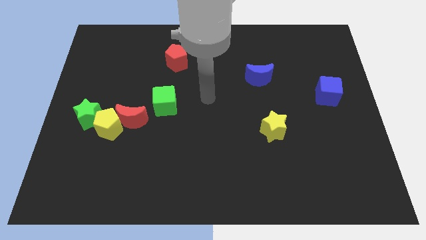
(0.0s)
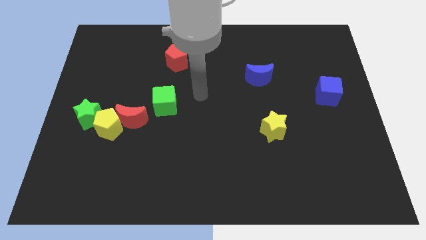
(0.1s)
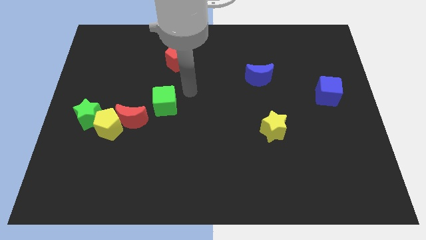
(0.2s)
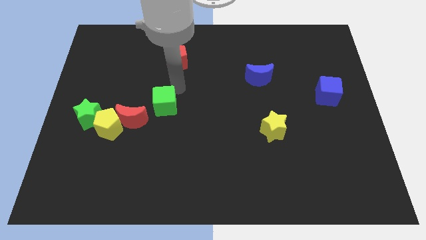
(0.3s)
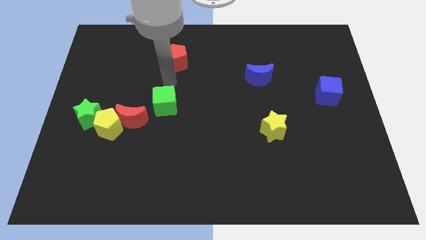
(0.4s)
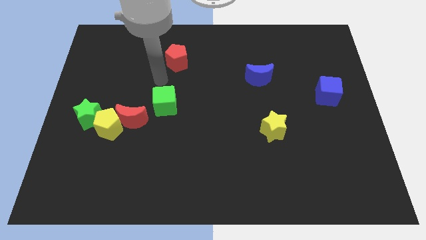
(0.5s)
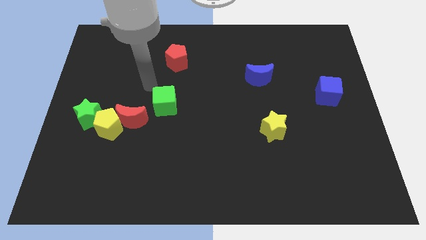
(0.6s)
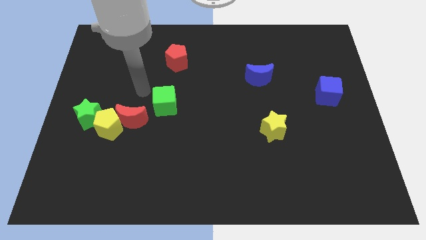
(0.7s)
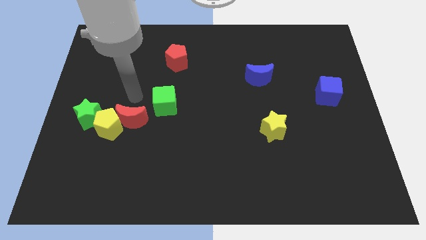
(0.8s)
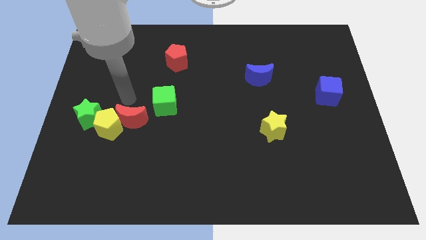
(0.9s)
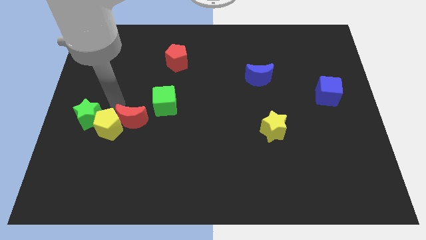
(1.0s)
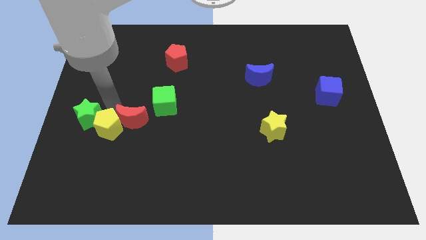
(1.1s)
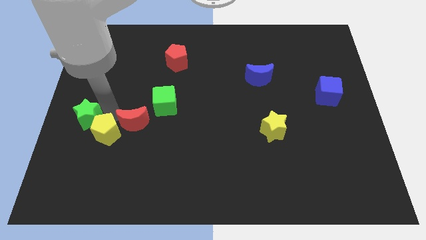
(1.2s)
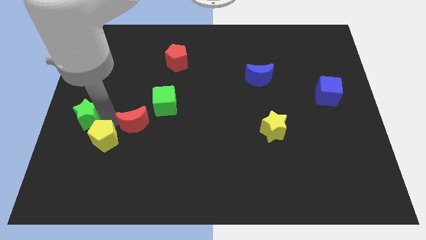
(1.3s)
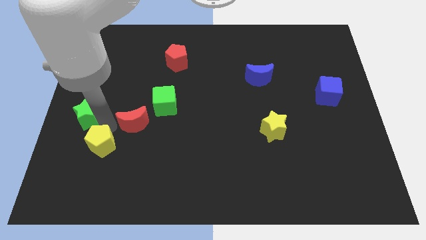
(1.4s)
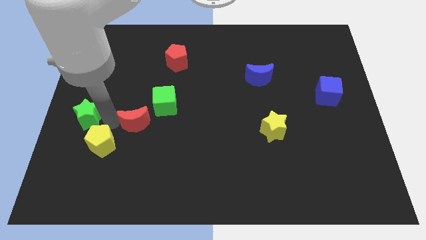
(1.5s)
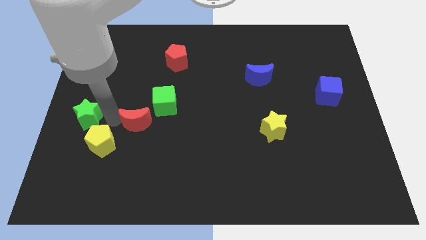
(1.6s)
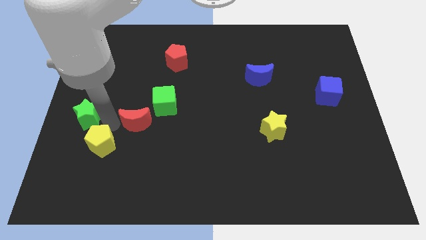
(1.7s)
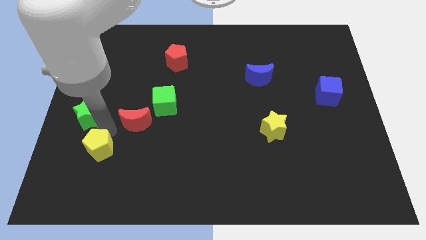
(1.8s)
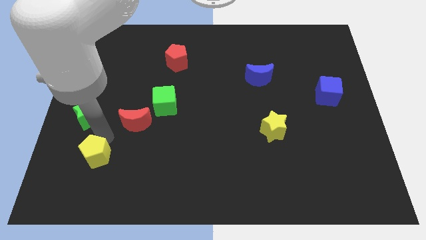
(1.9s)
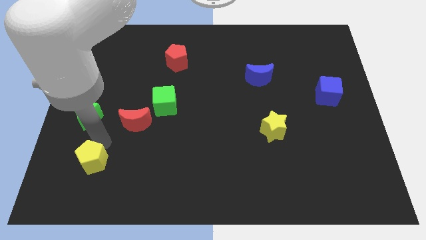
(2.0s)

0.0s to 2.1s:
move the yellow pentagon away from the green star and red moon

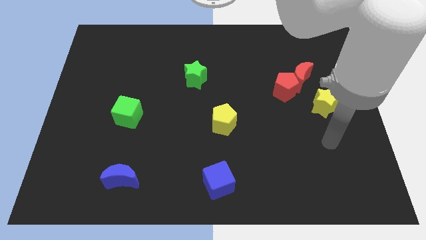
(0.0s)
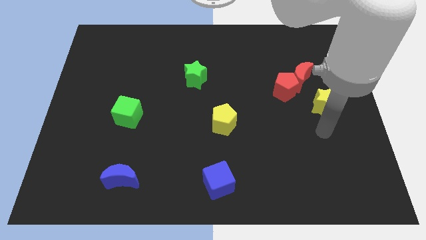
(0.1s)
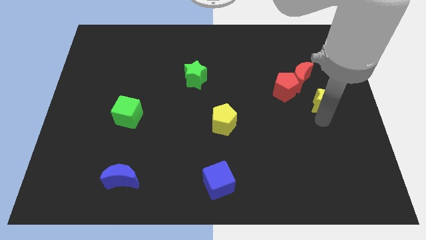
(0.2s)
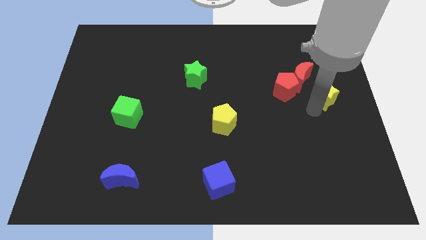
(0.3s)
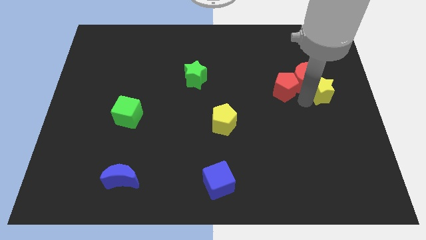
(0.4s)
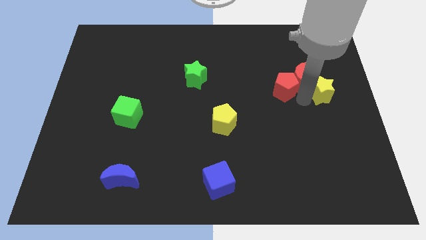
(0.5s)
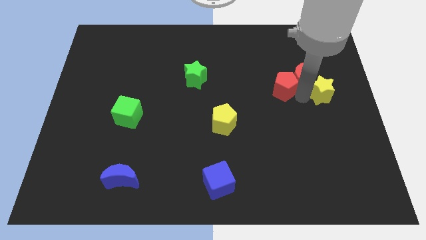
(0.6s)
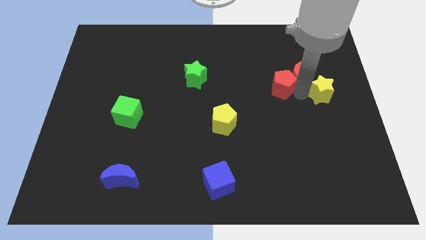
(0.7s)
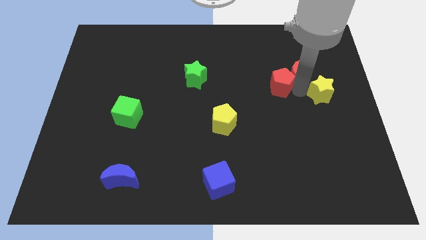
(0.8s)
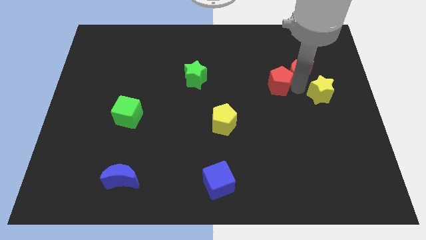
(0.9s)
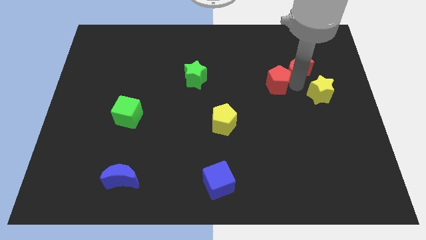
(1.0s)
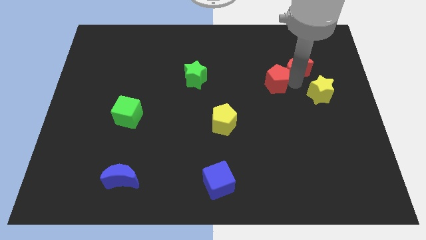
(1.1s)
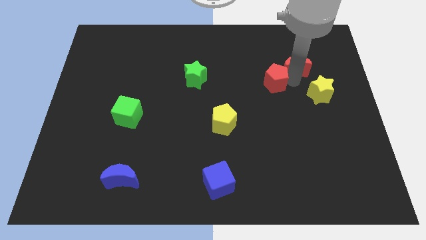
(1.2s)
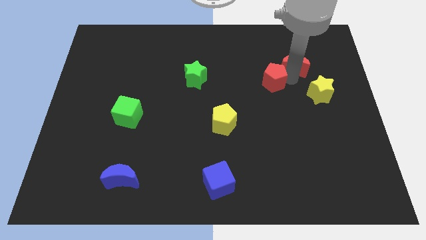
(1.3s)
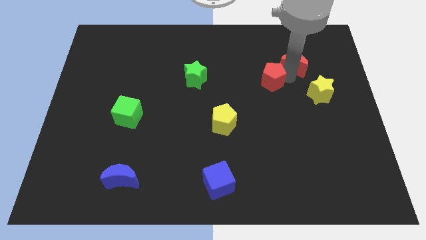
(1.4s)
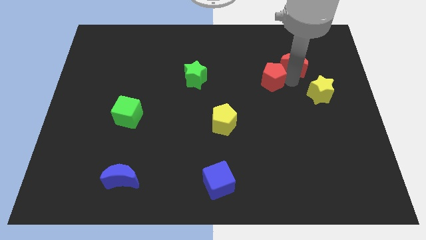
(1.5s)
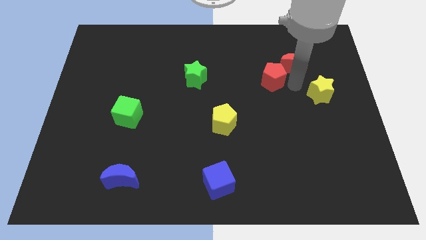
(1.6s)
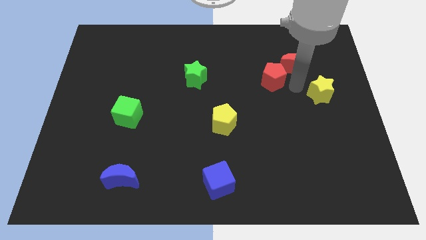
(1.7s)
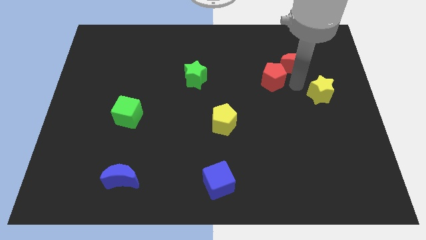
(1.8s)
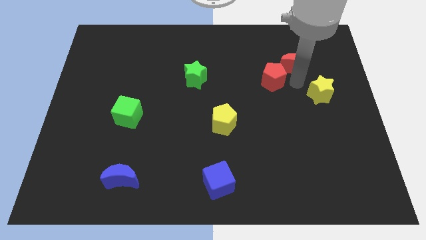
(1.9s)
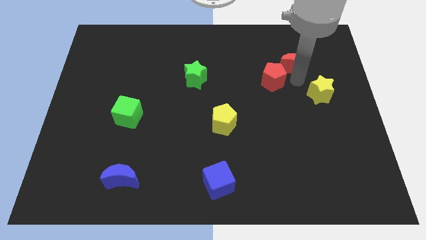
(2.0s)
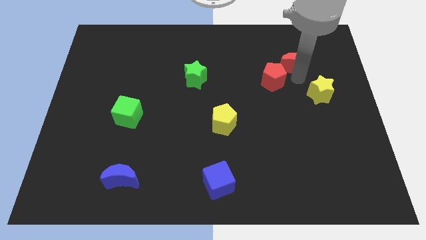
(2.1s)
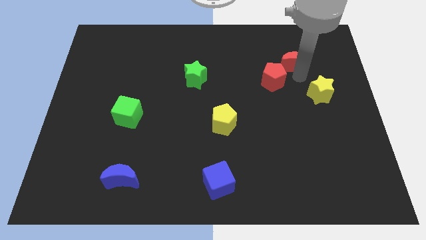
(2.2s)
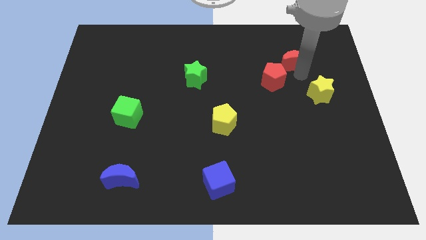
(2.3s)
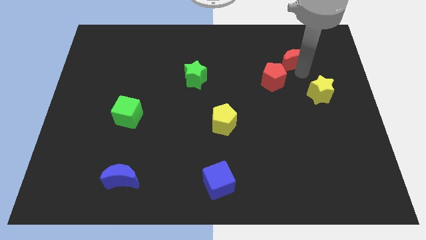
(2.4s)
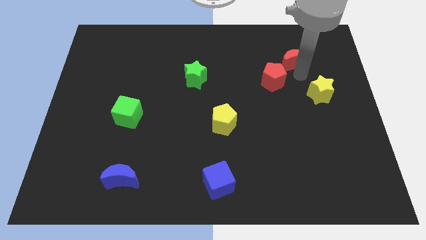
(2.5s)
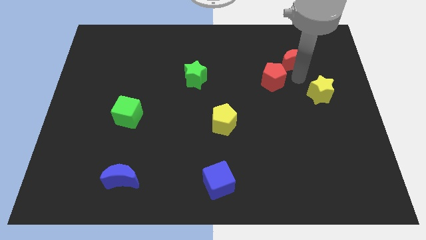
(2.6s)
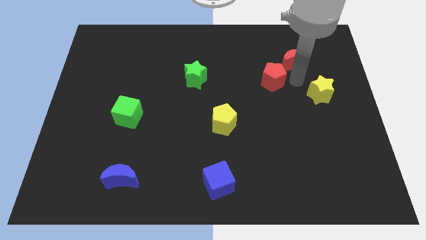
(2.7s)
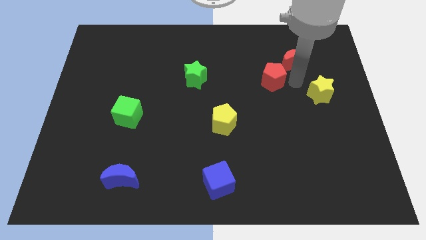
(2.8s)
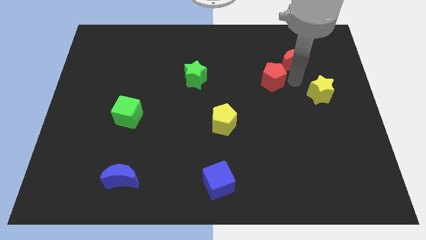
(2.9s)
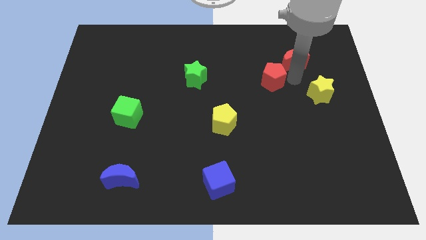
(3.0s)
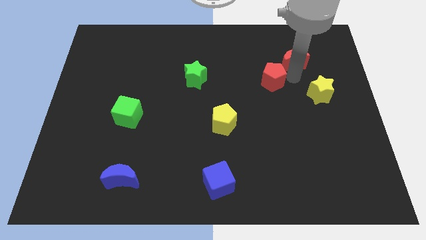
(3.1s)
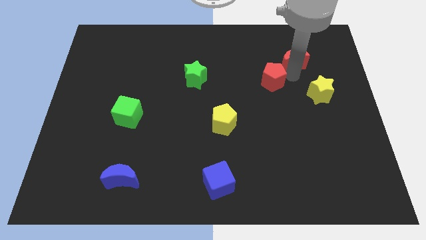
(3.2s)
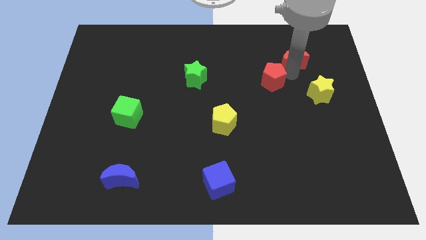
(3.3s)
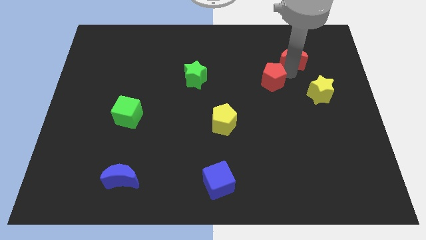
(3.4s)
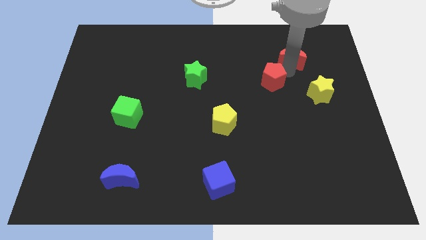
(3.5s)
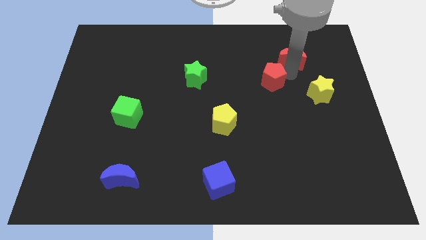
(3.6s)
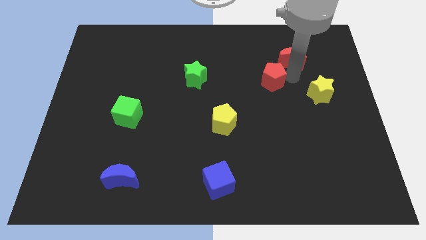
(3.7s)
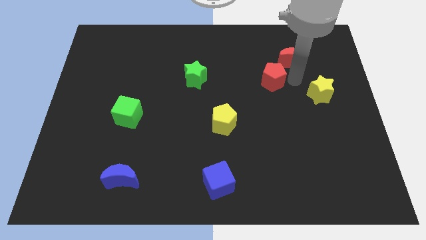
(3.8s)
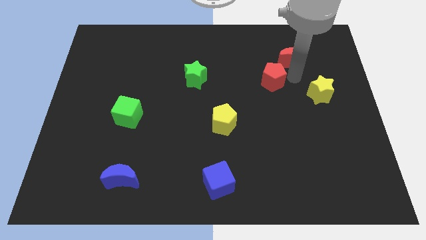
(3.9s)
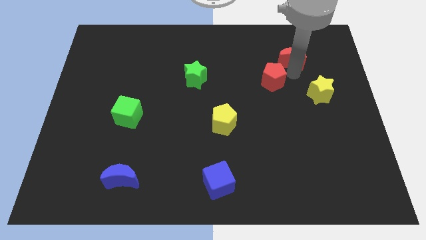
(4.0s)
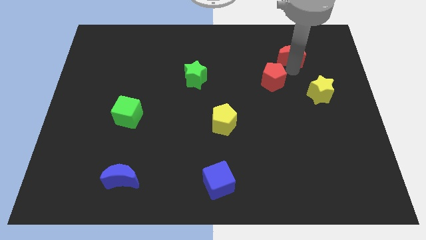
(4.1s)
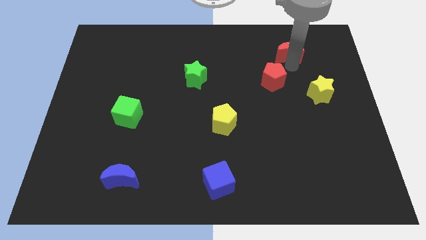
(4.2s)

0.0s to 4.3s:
pull the red moon apart from the red pentagon and yellow star

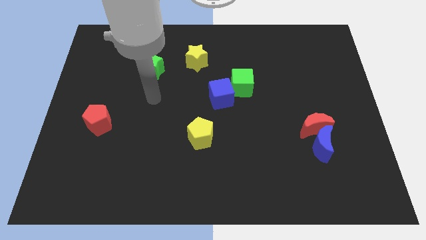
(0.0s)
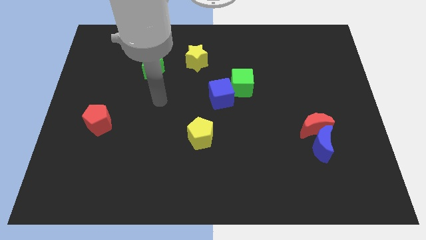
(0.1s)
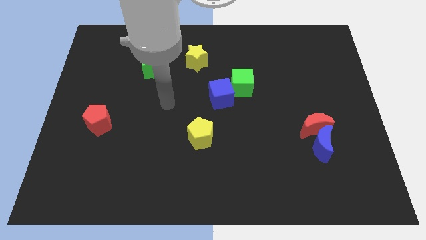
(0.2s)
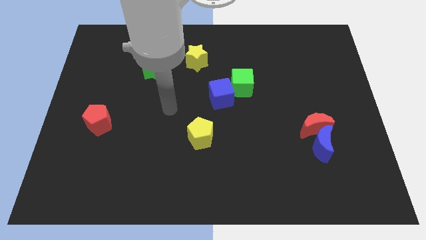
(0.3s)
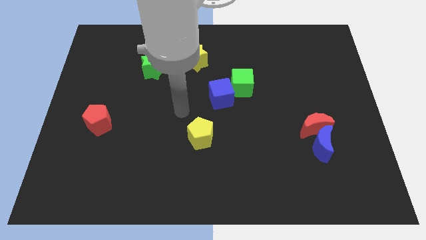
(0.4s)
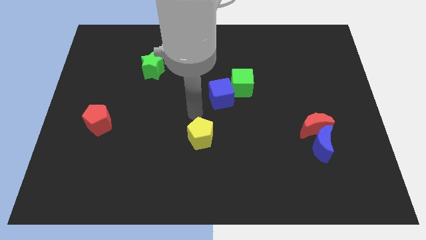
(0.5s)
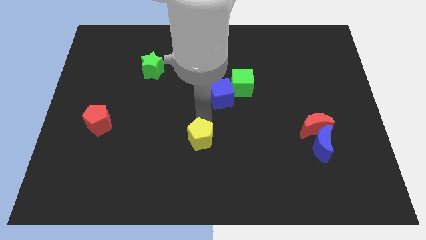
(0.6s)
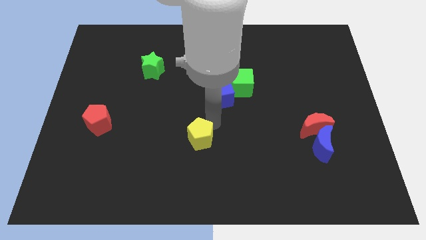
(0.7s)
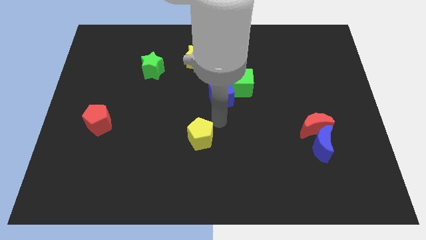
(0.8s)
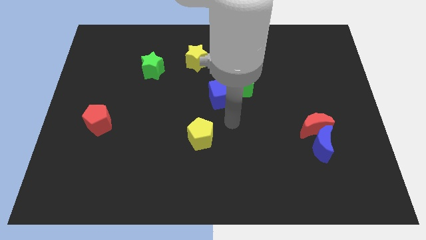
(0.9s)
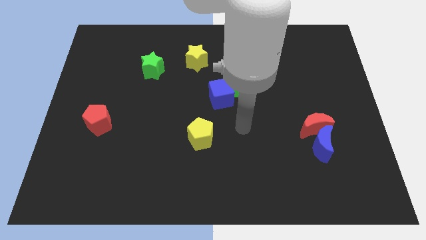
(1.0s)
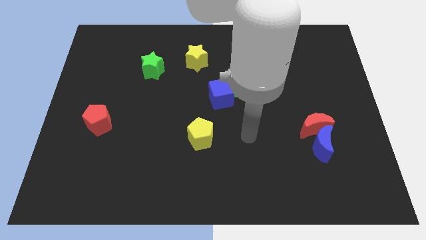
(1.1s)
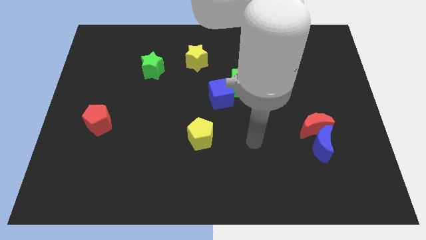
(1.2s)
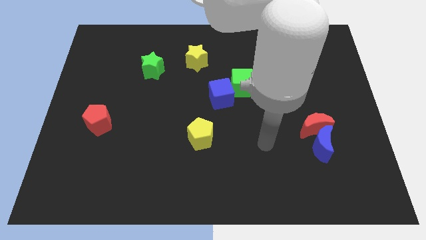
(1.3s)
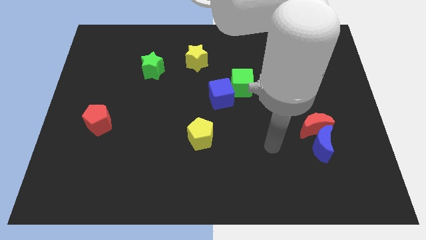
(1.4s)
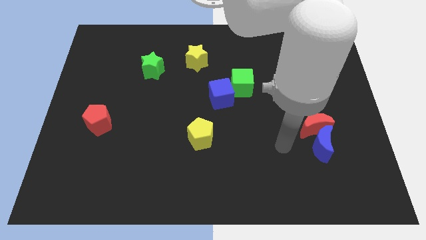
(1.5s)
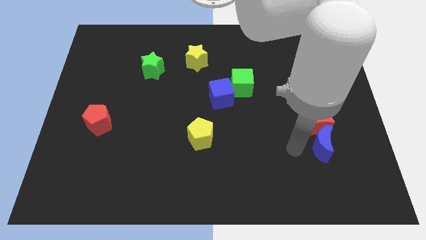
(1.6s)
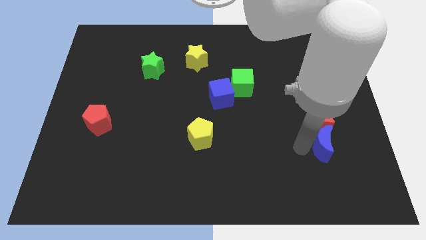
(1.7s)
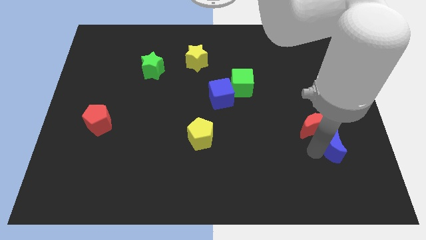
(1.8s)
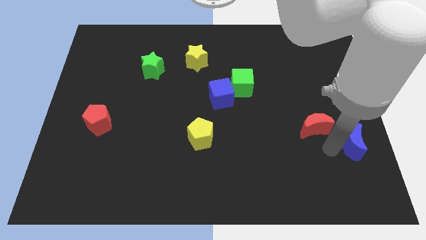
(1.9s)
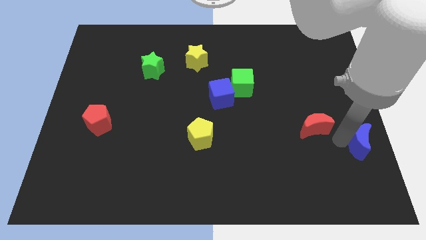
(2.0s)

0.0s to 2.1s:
move the red moon away from the blue moon

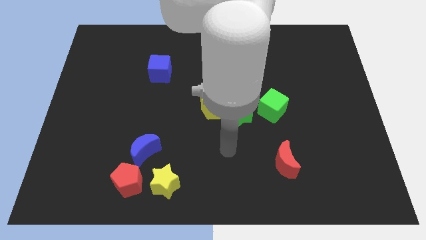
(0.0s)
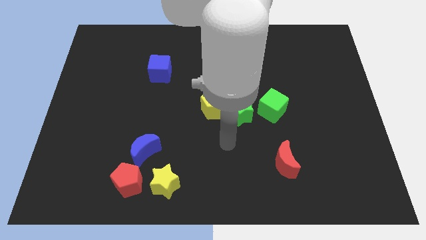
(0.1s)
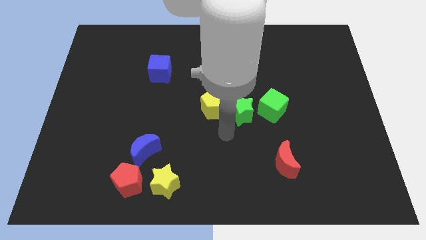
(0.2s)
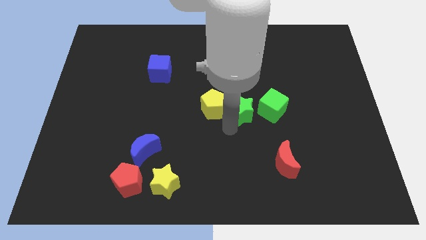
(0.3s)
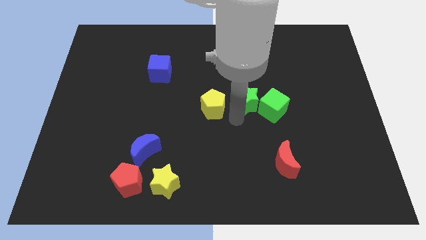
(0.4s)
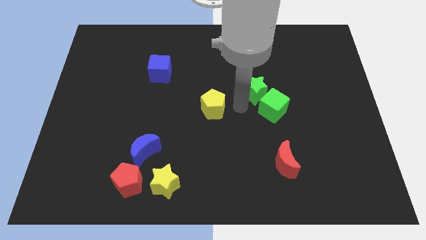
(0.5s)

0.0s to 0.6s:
move the yellow pentagon away from the green star

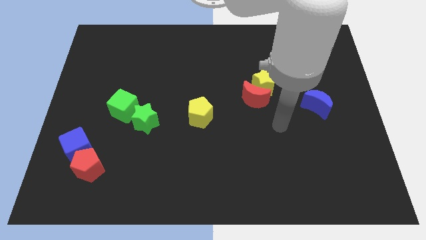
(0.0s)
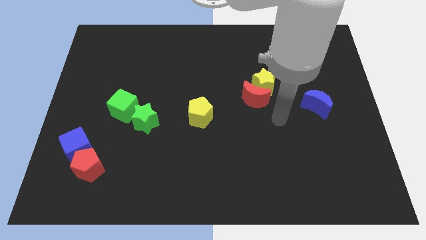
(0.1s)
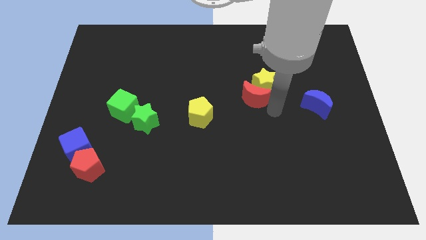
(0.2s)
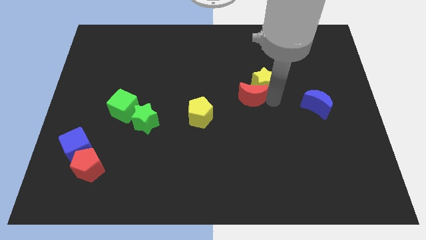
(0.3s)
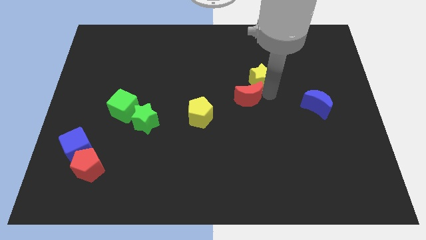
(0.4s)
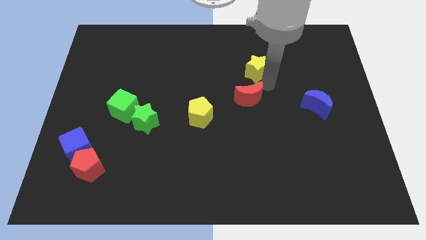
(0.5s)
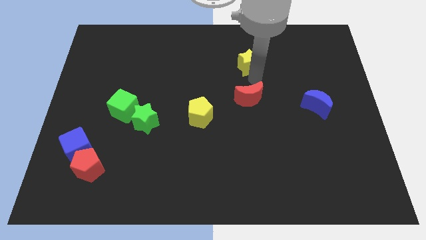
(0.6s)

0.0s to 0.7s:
move the red moon away from the yellow star
